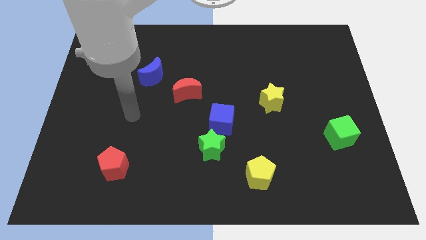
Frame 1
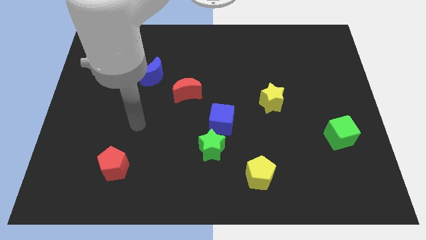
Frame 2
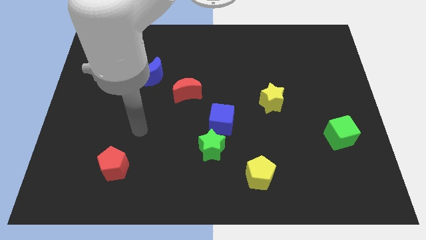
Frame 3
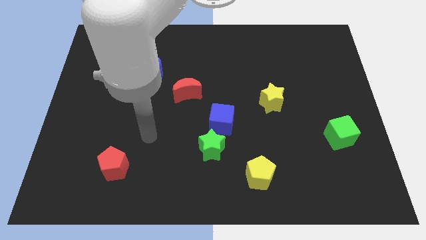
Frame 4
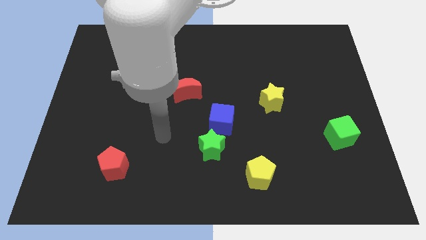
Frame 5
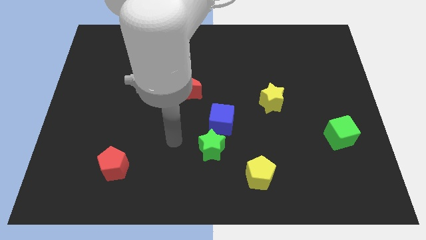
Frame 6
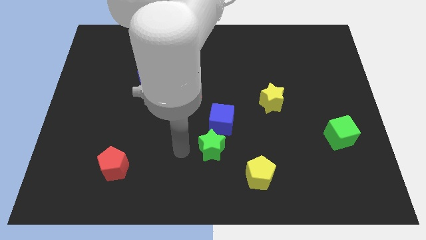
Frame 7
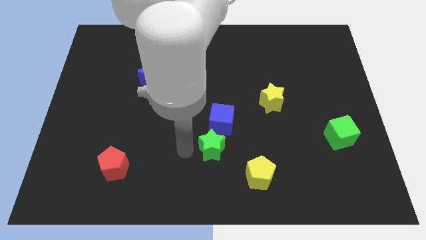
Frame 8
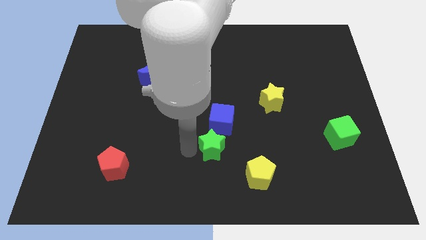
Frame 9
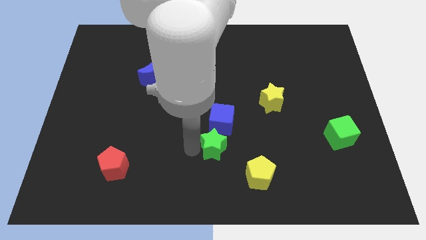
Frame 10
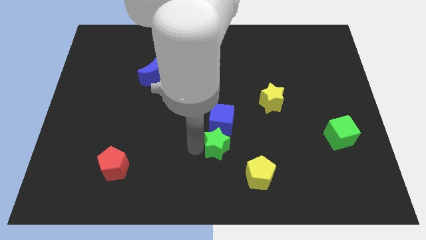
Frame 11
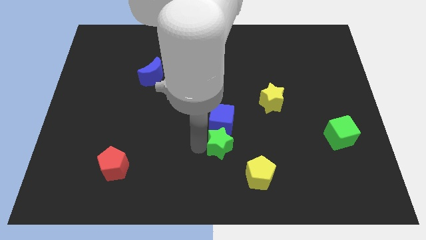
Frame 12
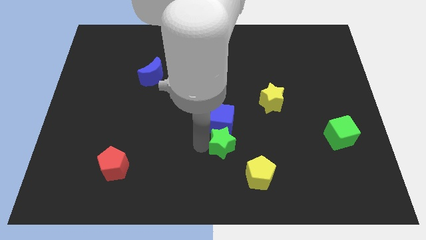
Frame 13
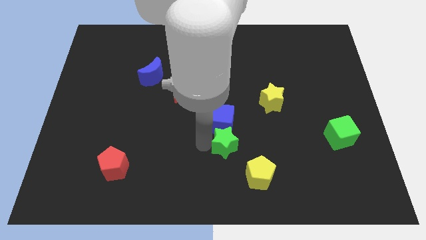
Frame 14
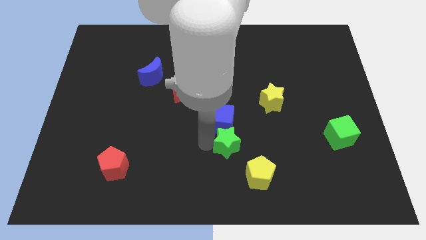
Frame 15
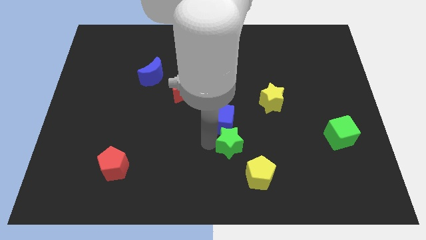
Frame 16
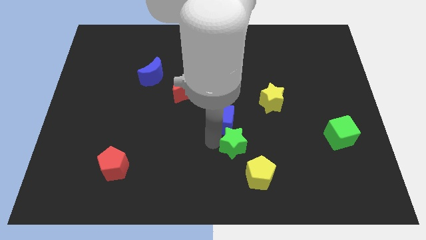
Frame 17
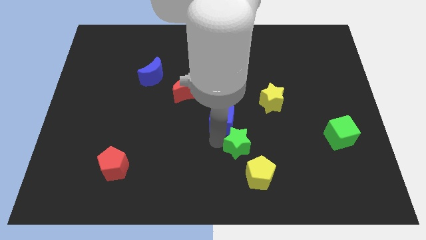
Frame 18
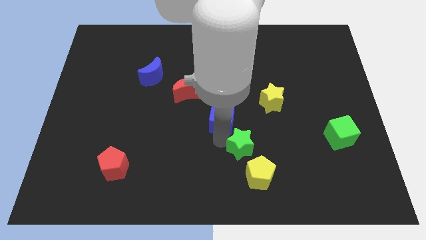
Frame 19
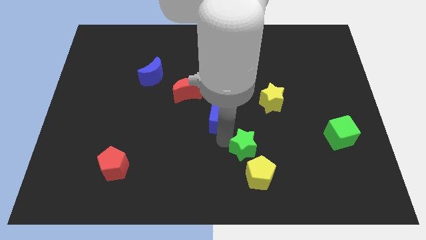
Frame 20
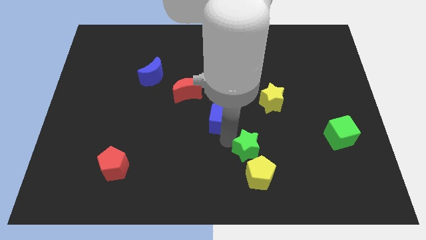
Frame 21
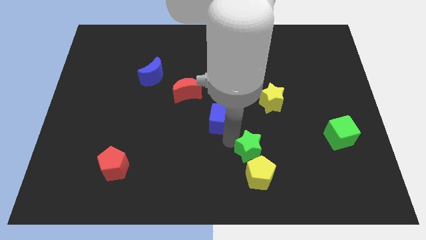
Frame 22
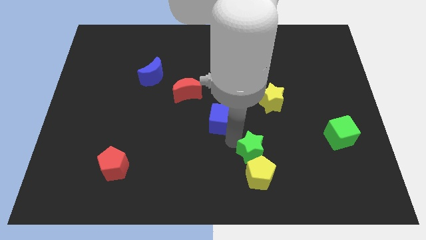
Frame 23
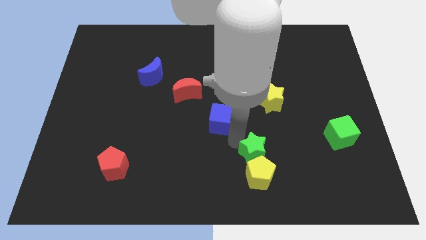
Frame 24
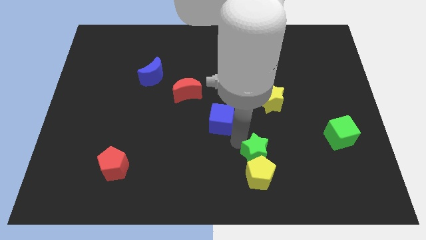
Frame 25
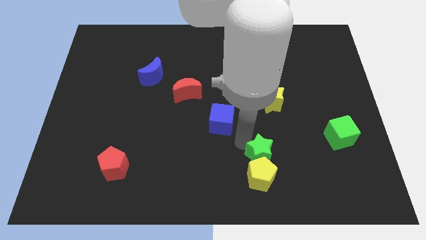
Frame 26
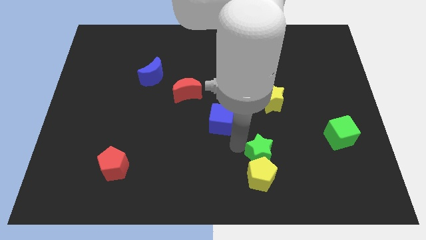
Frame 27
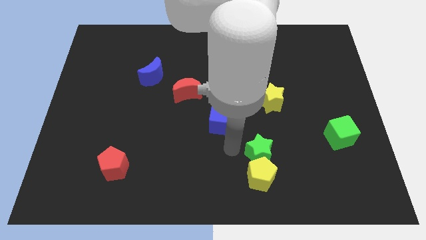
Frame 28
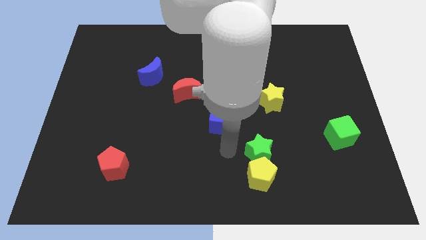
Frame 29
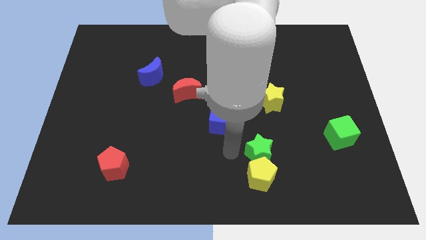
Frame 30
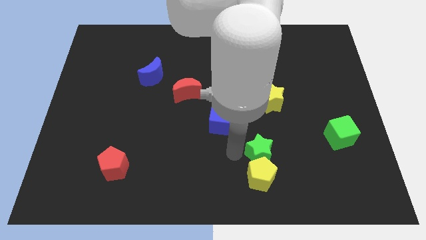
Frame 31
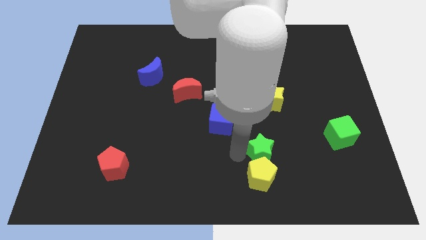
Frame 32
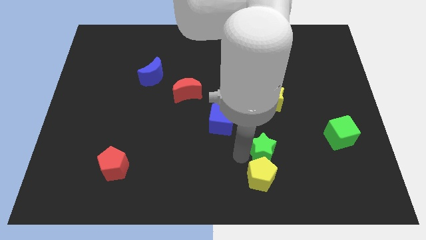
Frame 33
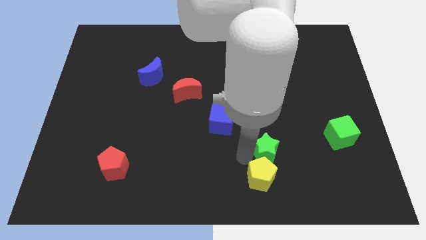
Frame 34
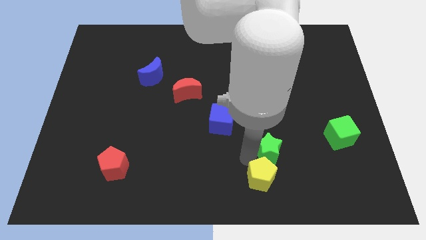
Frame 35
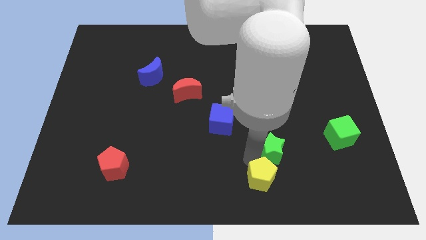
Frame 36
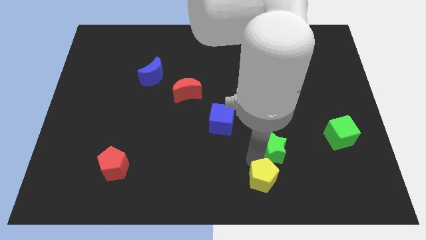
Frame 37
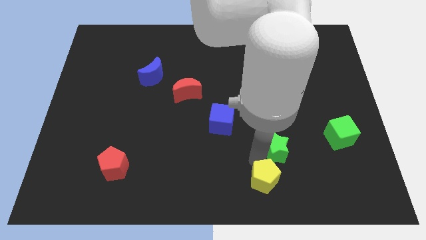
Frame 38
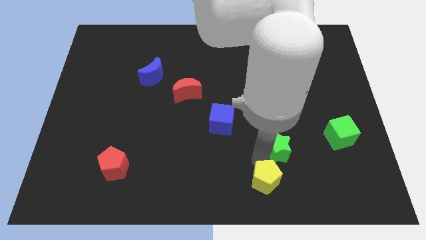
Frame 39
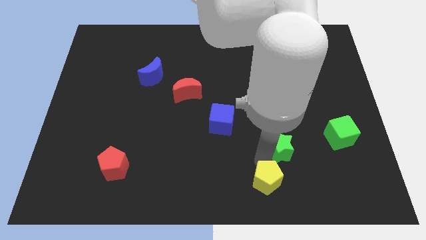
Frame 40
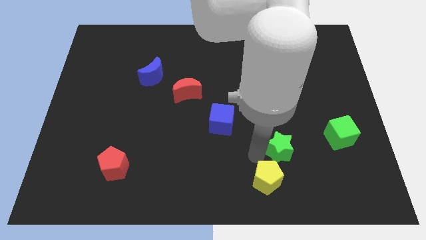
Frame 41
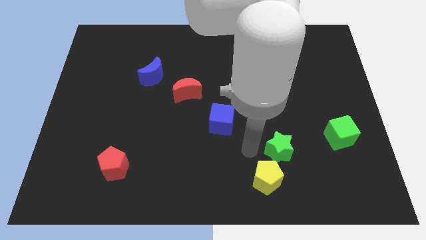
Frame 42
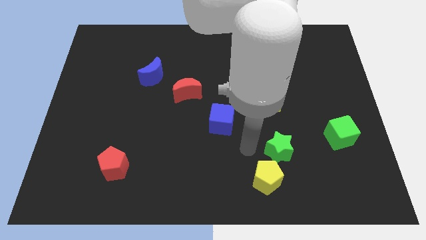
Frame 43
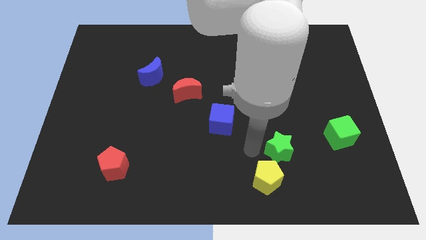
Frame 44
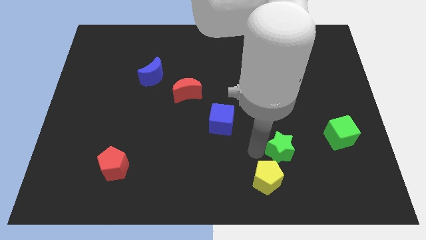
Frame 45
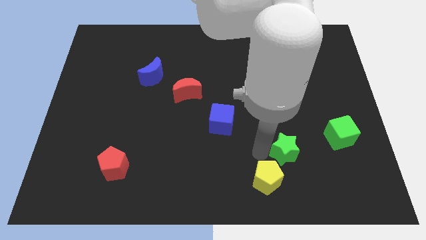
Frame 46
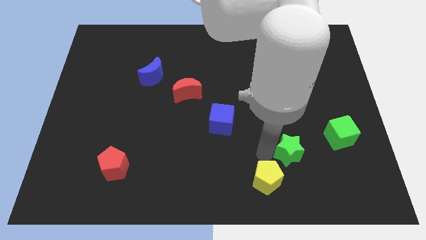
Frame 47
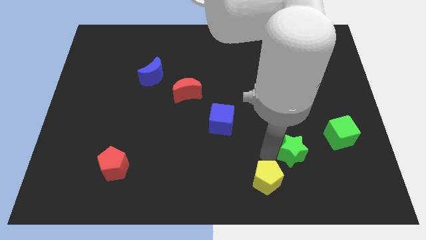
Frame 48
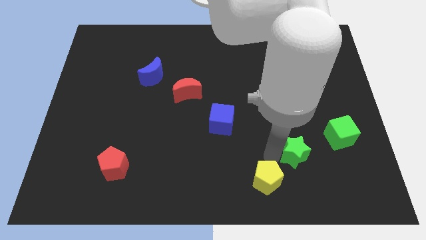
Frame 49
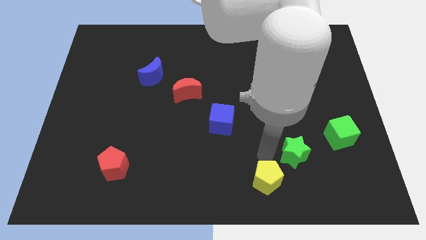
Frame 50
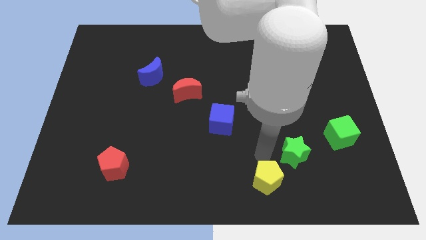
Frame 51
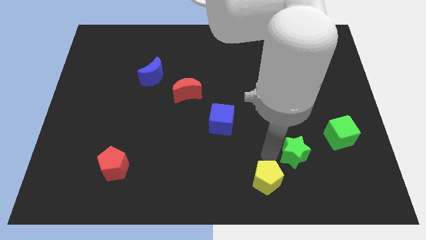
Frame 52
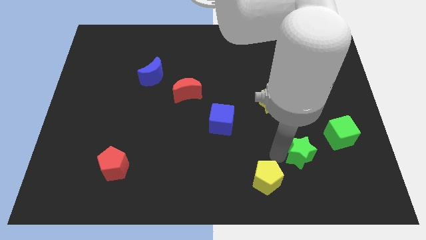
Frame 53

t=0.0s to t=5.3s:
move the green star to the bottom left of the green cube

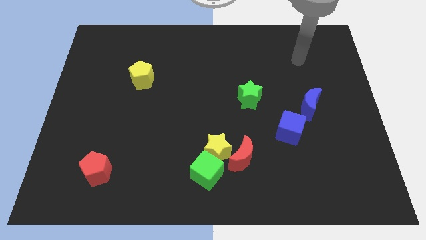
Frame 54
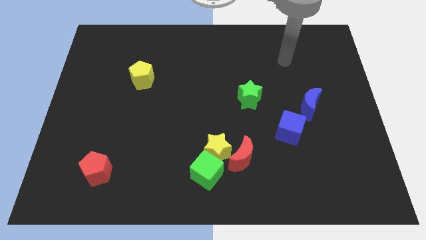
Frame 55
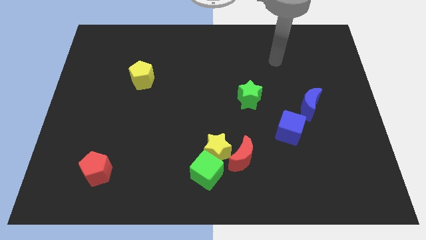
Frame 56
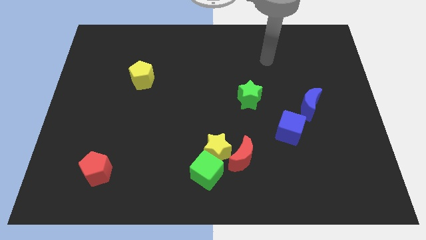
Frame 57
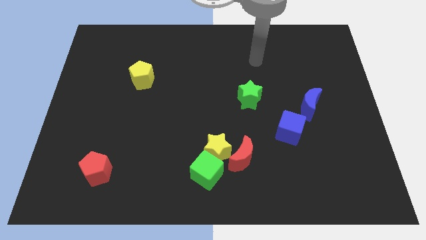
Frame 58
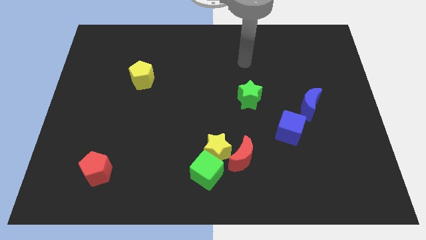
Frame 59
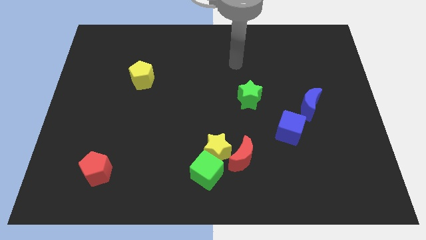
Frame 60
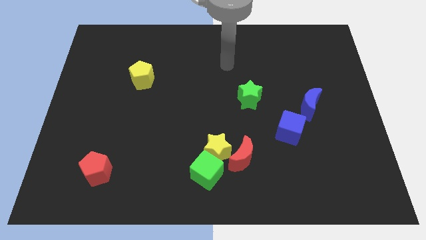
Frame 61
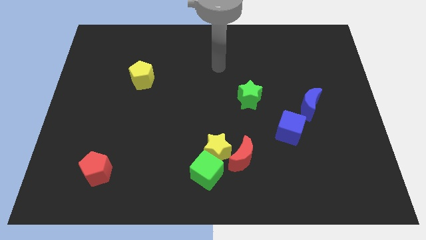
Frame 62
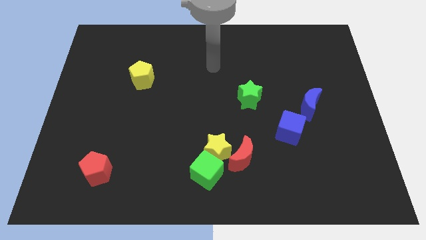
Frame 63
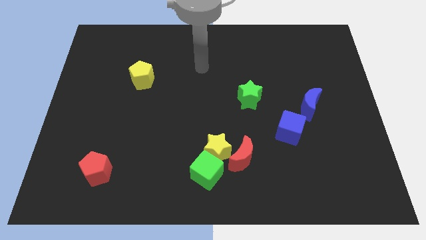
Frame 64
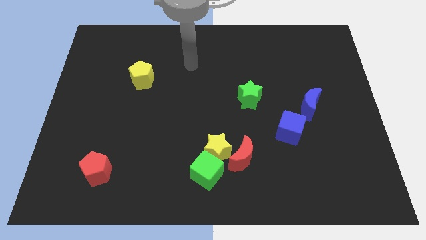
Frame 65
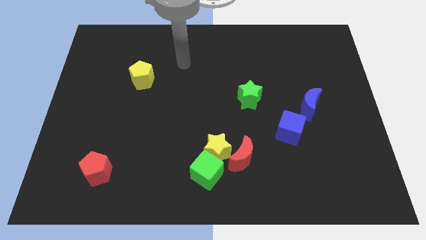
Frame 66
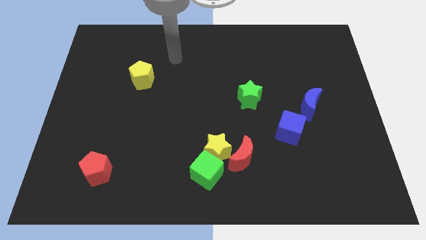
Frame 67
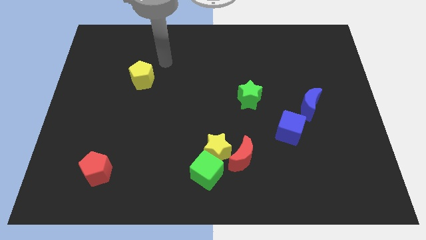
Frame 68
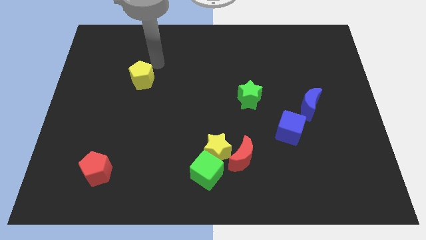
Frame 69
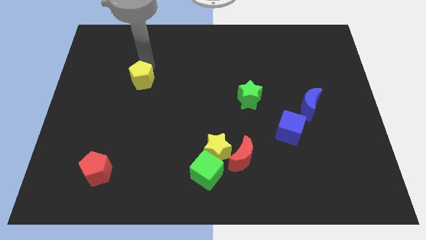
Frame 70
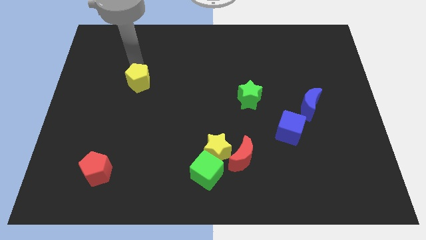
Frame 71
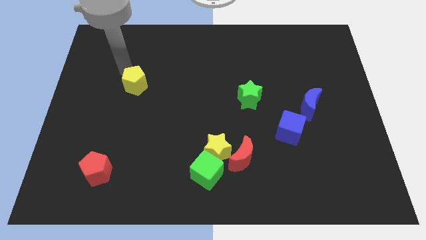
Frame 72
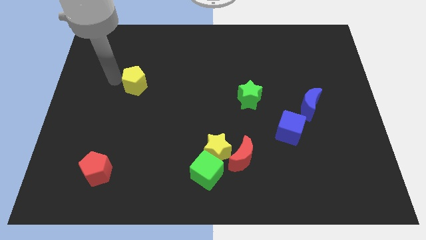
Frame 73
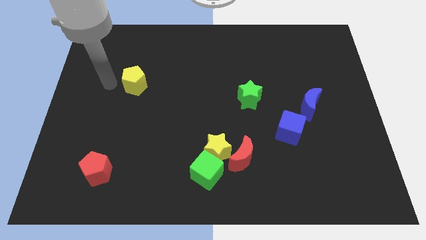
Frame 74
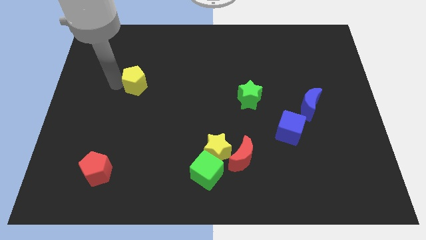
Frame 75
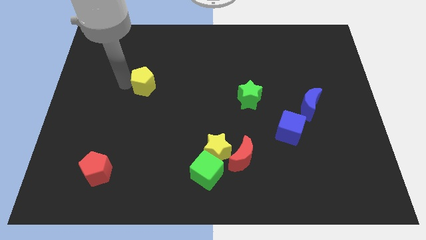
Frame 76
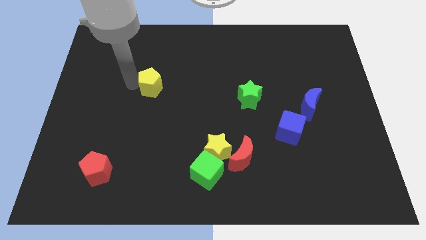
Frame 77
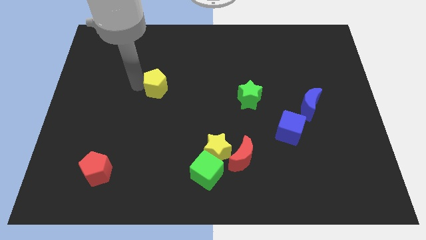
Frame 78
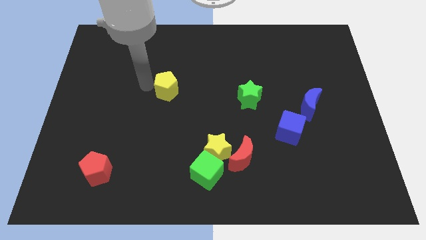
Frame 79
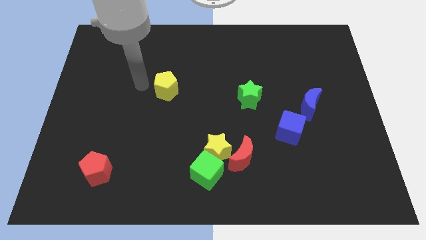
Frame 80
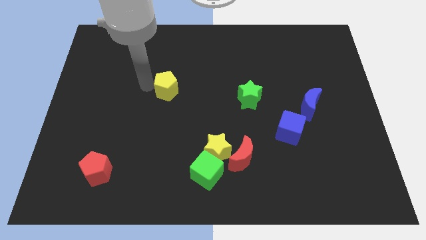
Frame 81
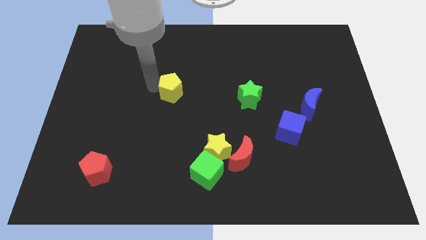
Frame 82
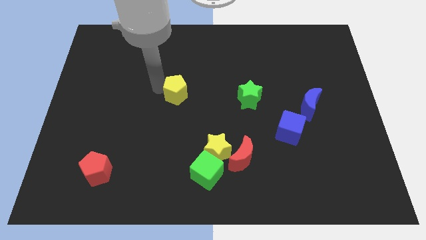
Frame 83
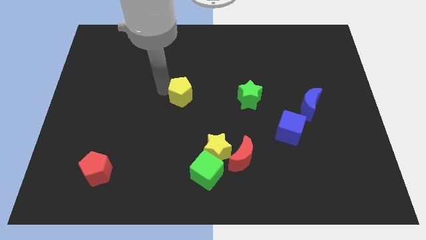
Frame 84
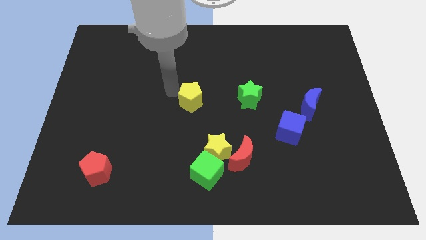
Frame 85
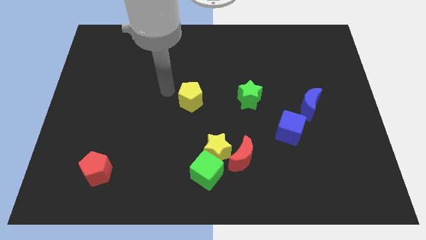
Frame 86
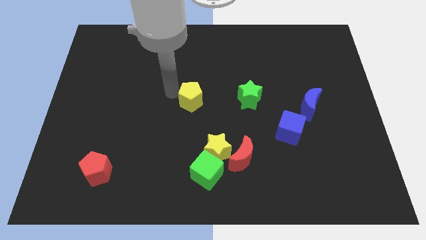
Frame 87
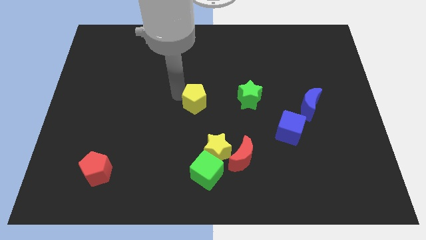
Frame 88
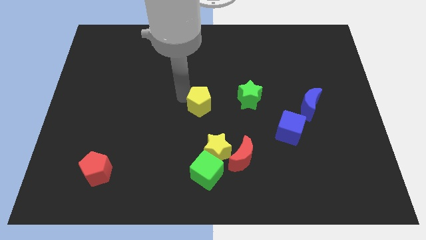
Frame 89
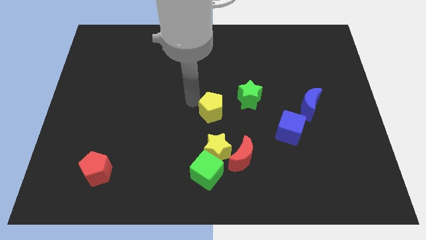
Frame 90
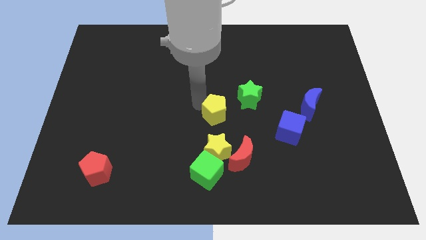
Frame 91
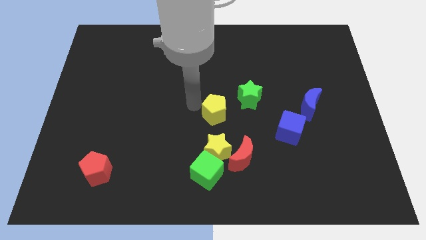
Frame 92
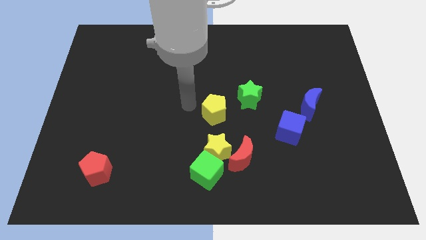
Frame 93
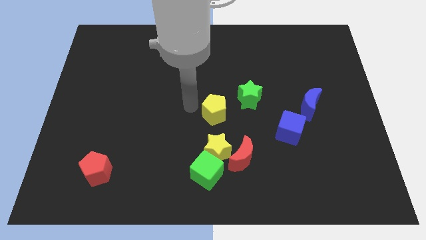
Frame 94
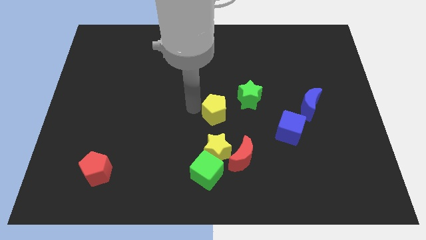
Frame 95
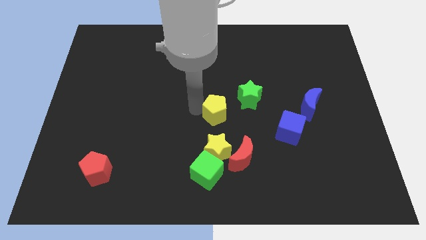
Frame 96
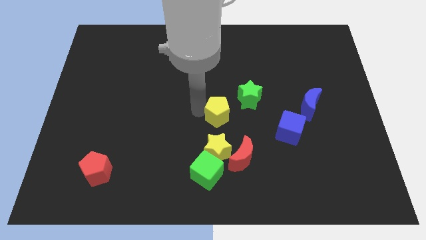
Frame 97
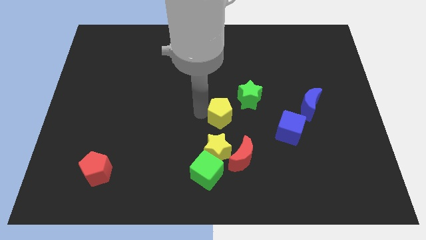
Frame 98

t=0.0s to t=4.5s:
slide the yellow pentagon above the red moon
